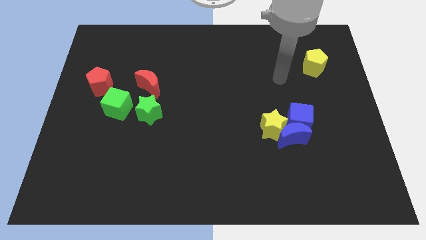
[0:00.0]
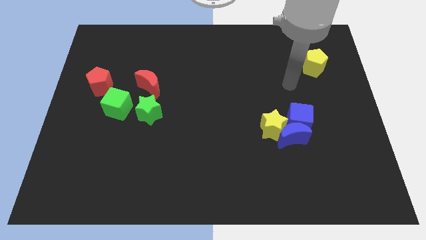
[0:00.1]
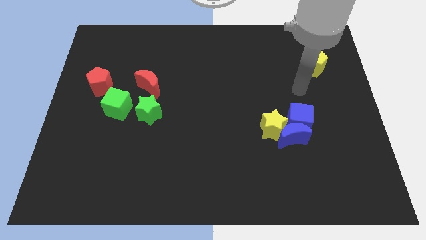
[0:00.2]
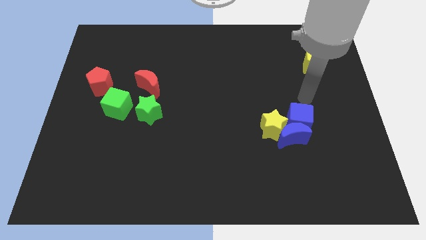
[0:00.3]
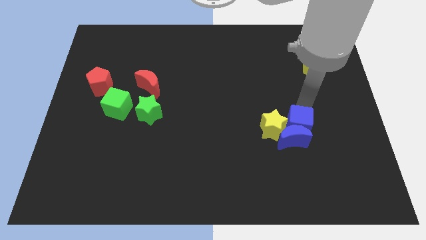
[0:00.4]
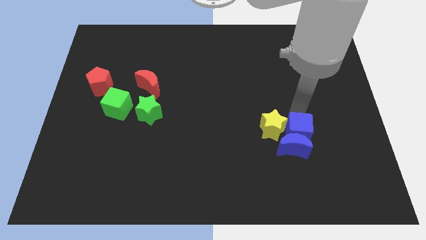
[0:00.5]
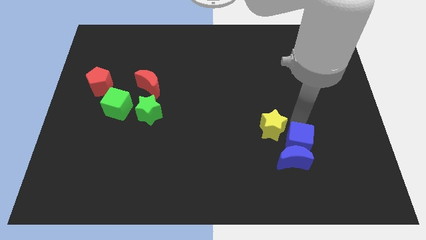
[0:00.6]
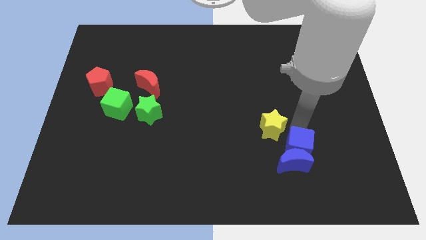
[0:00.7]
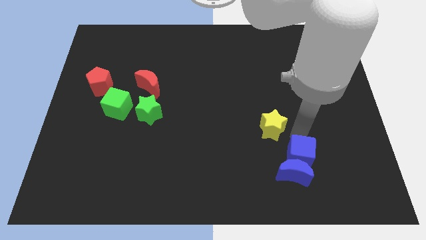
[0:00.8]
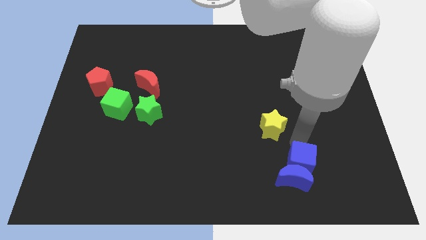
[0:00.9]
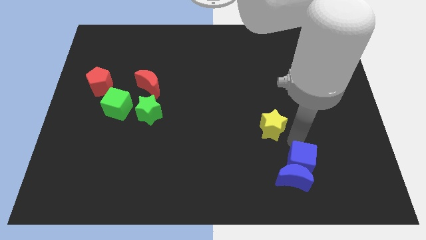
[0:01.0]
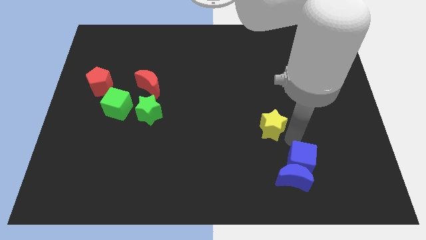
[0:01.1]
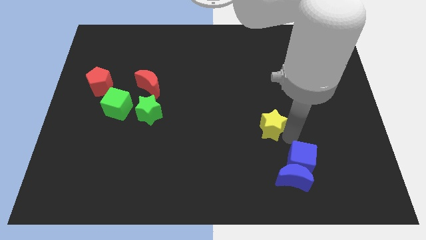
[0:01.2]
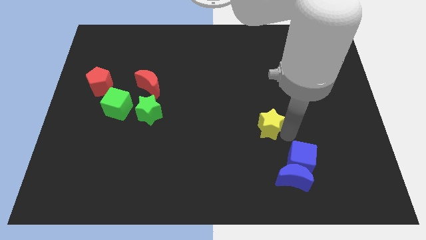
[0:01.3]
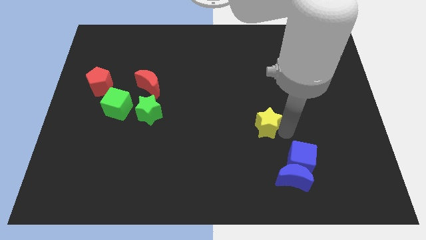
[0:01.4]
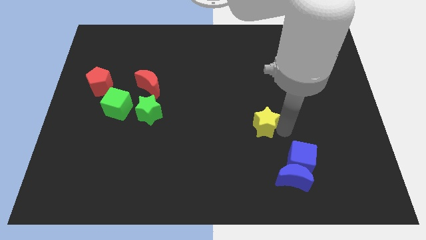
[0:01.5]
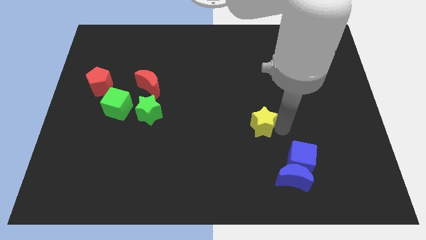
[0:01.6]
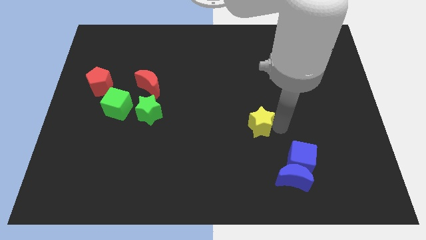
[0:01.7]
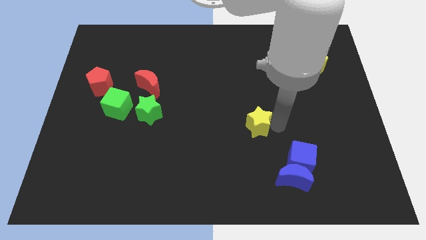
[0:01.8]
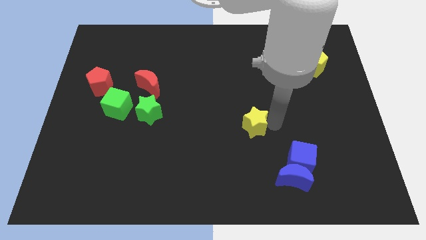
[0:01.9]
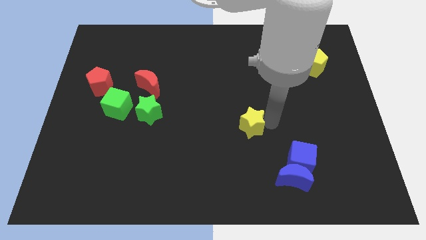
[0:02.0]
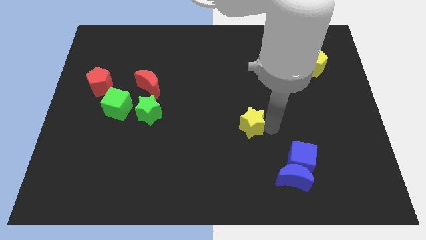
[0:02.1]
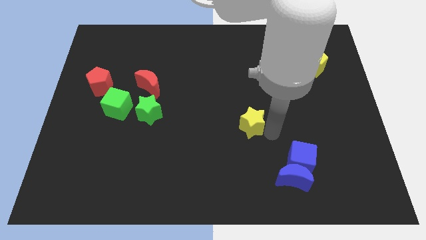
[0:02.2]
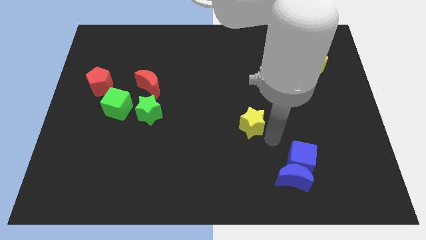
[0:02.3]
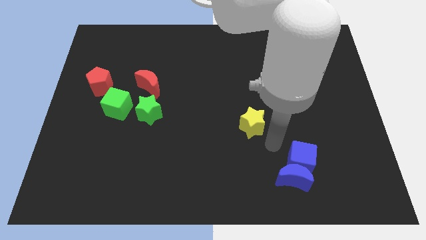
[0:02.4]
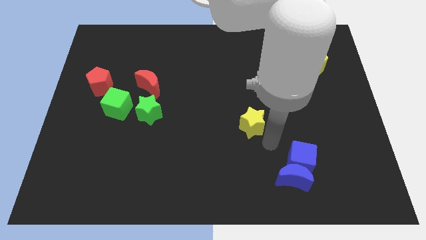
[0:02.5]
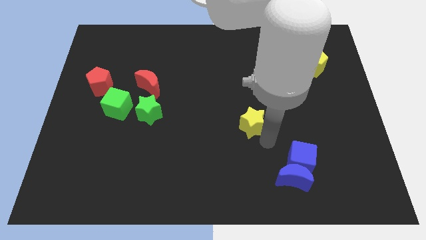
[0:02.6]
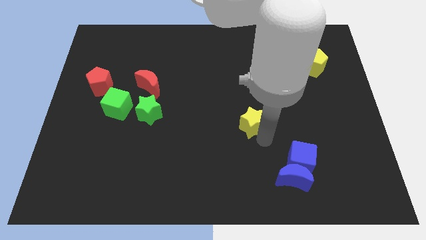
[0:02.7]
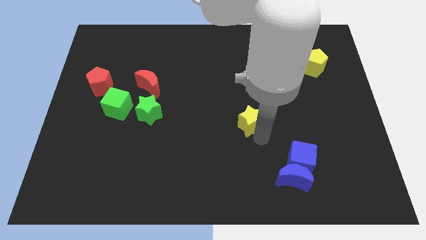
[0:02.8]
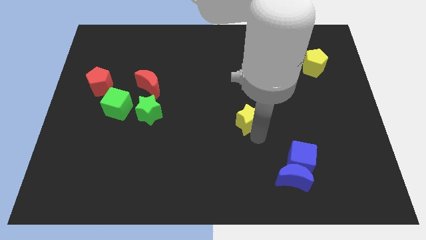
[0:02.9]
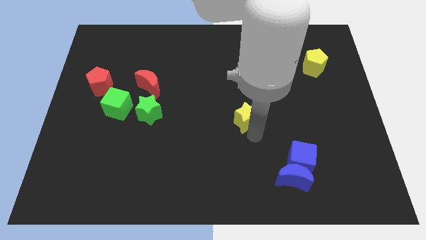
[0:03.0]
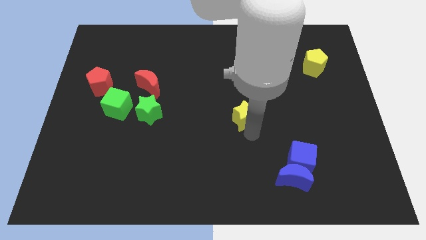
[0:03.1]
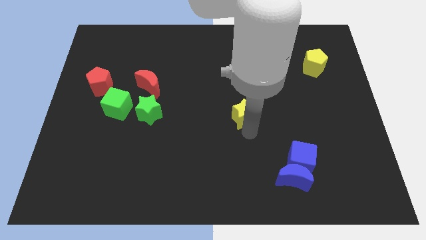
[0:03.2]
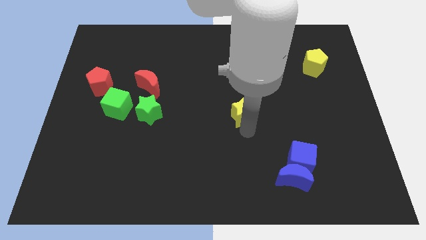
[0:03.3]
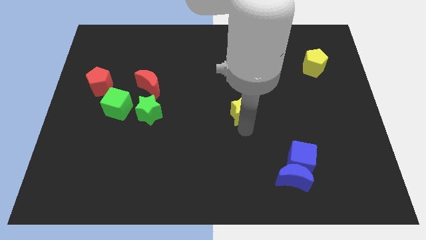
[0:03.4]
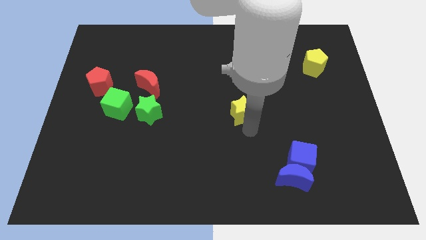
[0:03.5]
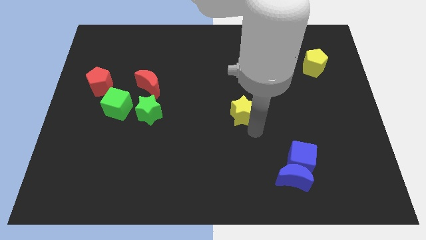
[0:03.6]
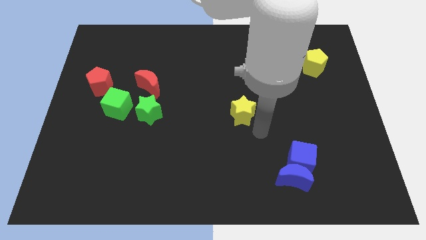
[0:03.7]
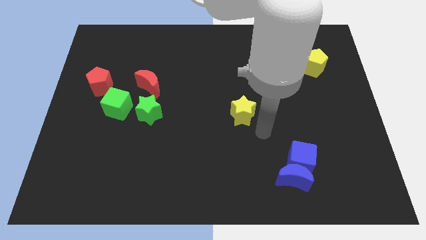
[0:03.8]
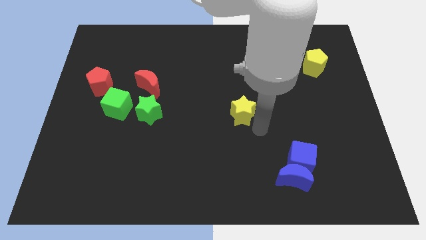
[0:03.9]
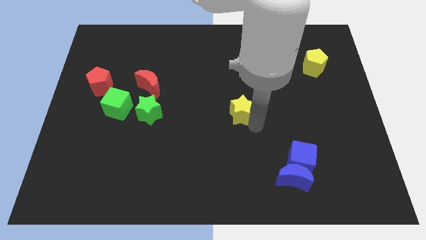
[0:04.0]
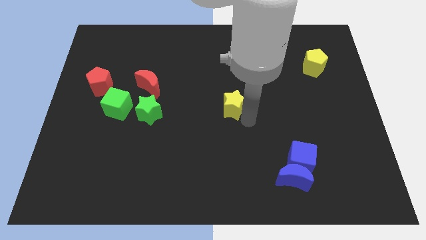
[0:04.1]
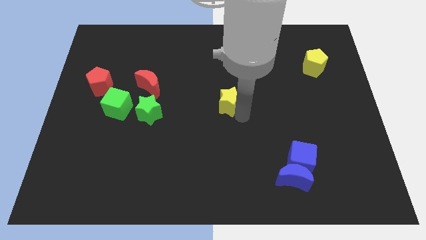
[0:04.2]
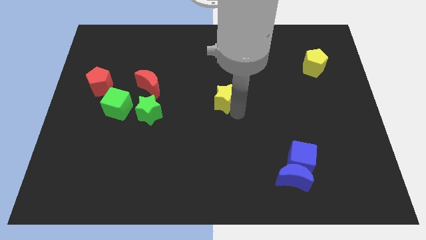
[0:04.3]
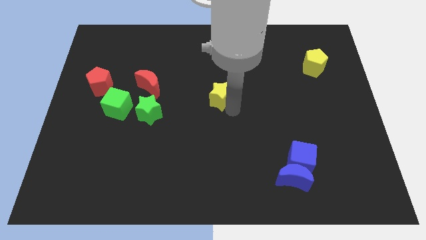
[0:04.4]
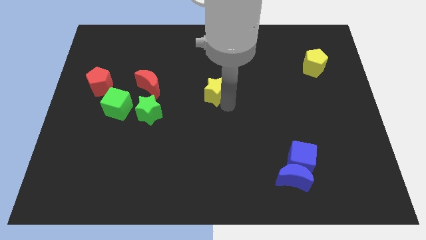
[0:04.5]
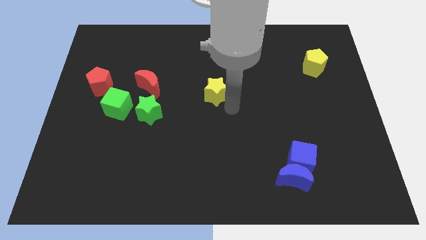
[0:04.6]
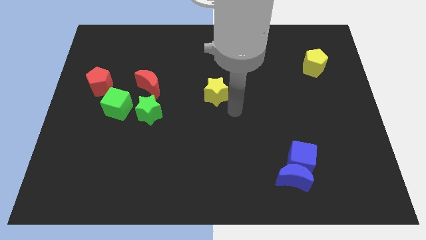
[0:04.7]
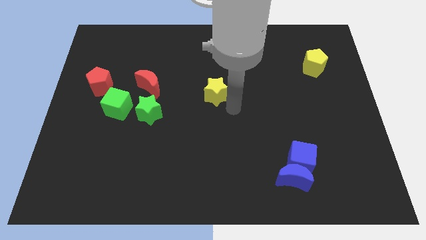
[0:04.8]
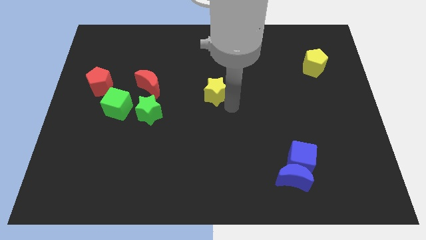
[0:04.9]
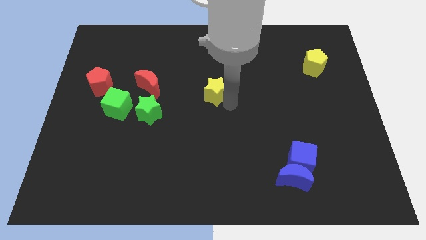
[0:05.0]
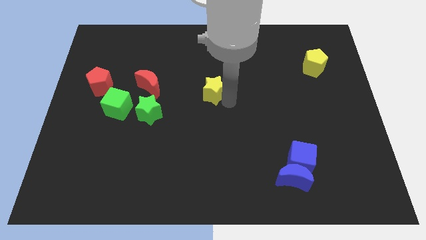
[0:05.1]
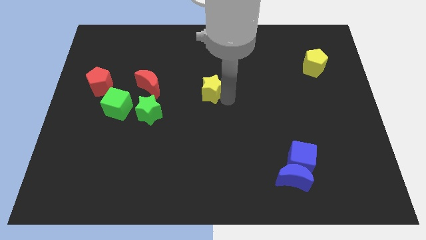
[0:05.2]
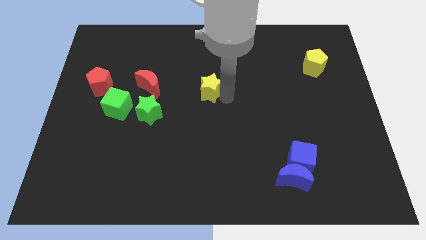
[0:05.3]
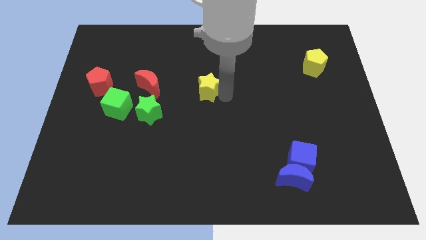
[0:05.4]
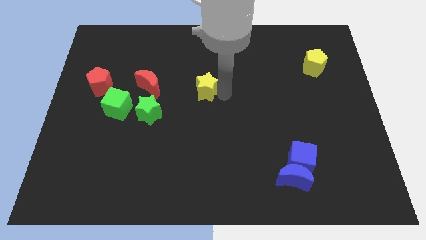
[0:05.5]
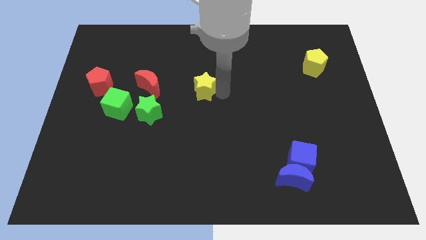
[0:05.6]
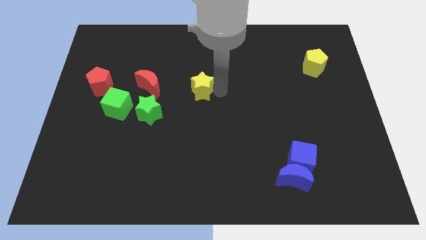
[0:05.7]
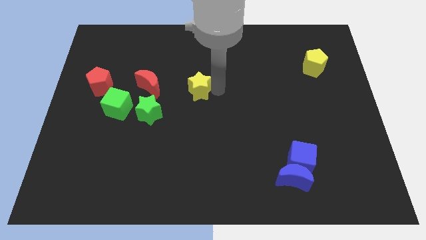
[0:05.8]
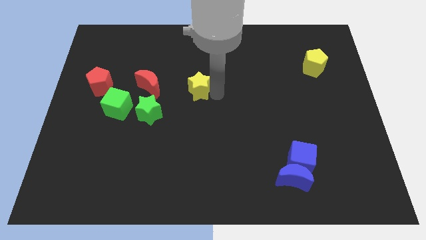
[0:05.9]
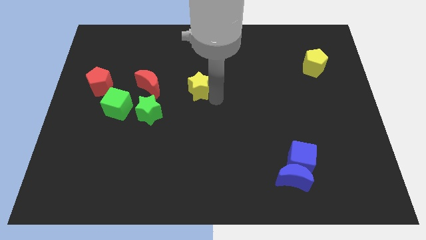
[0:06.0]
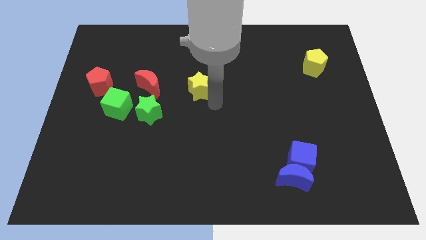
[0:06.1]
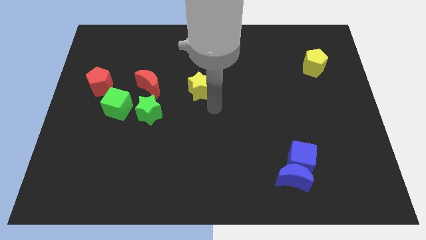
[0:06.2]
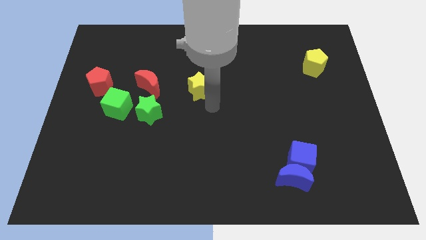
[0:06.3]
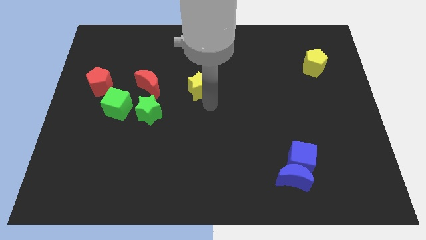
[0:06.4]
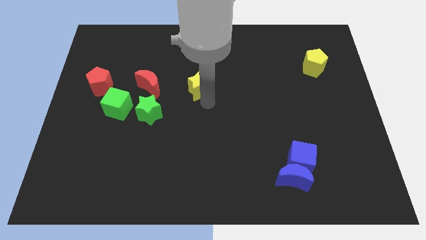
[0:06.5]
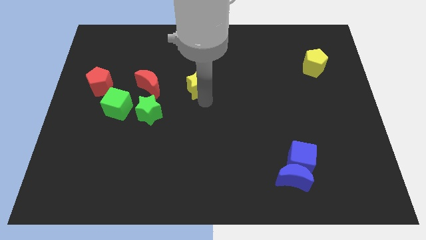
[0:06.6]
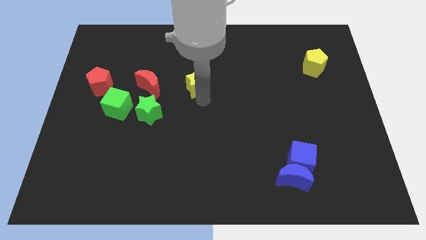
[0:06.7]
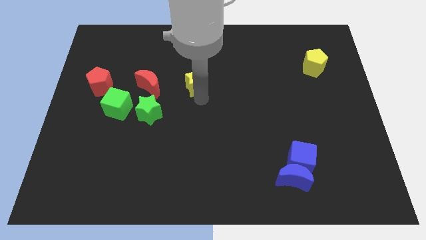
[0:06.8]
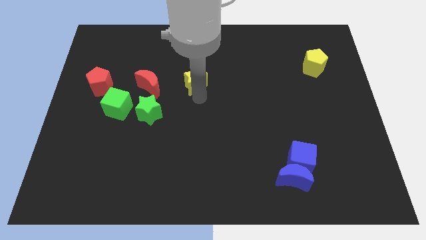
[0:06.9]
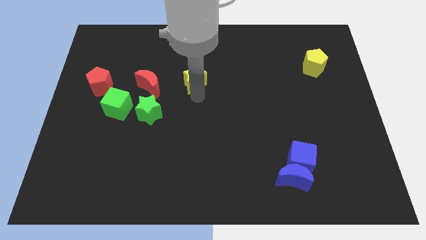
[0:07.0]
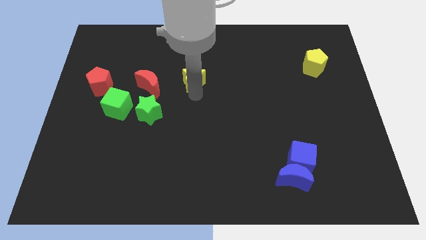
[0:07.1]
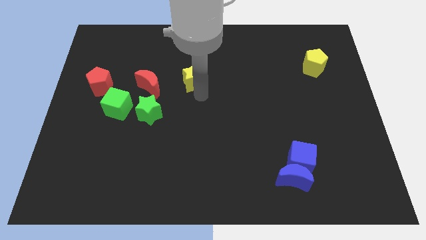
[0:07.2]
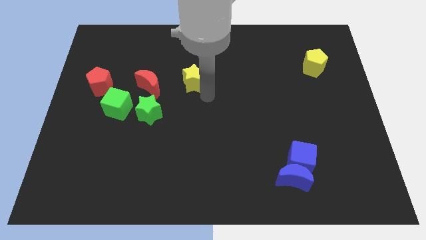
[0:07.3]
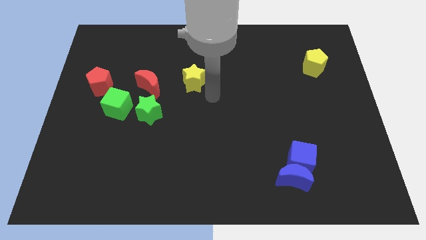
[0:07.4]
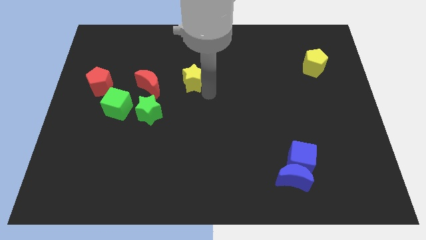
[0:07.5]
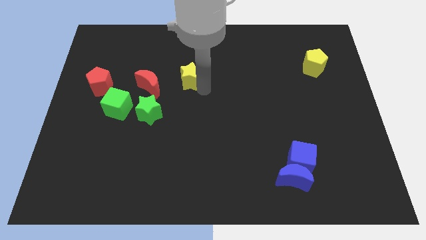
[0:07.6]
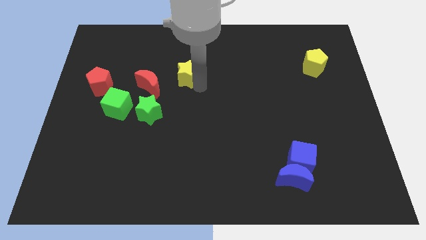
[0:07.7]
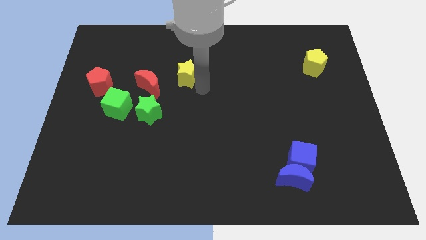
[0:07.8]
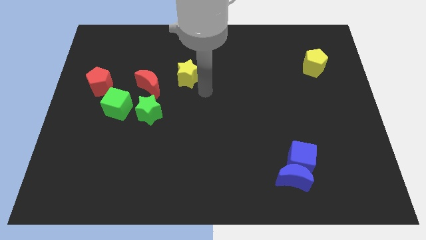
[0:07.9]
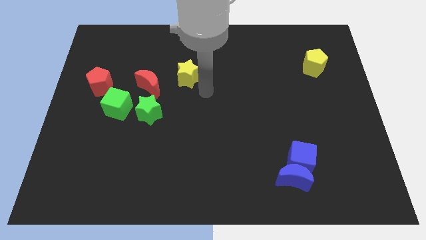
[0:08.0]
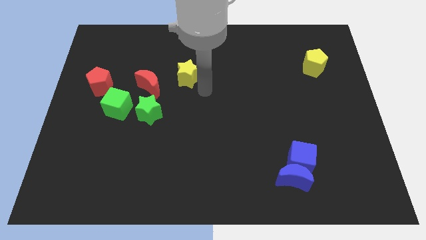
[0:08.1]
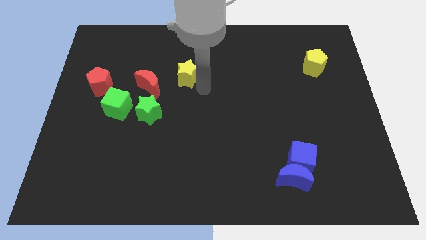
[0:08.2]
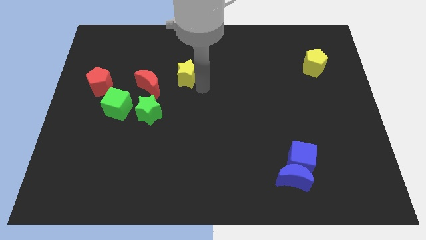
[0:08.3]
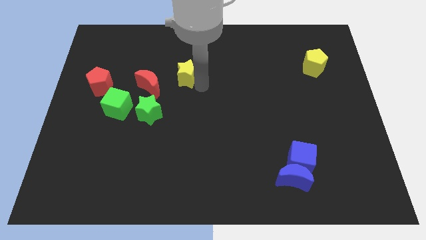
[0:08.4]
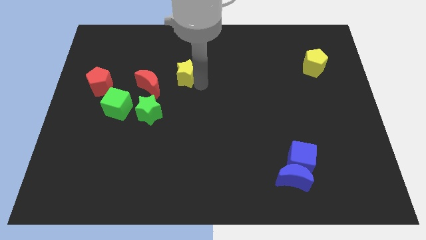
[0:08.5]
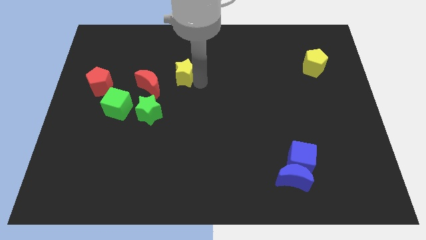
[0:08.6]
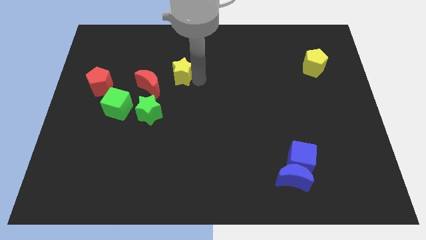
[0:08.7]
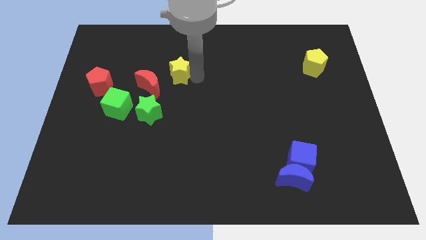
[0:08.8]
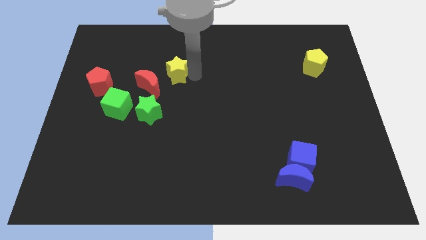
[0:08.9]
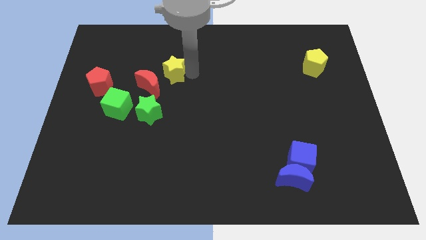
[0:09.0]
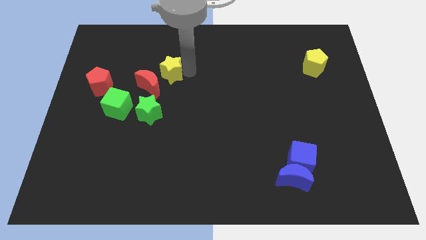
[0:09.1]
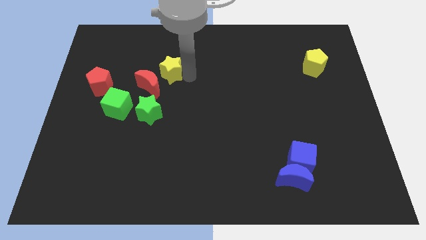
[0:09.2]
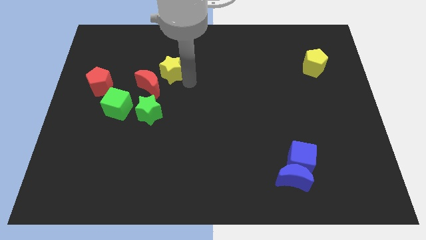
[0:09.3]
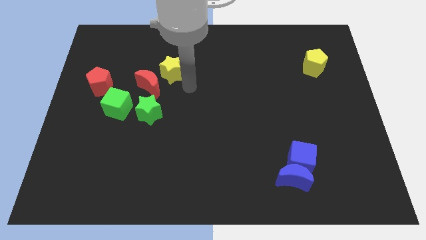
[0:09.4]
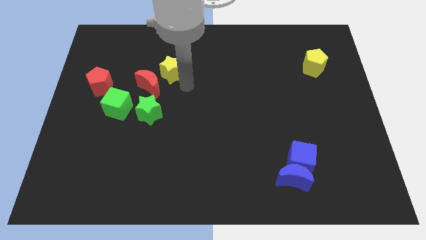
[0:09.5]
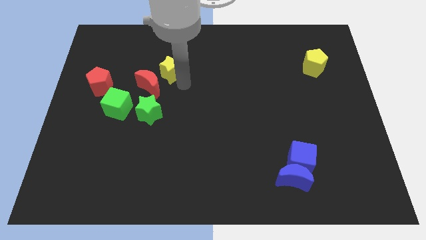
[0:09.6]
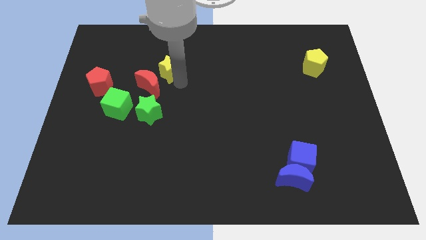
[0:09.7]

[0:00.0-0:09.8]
move the yellow star above the red moon
